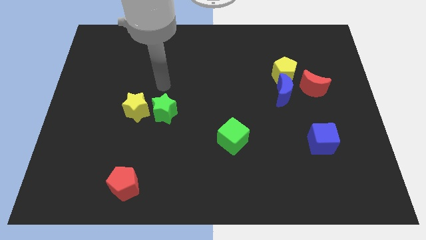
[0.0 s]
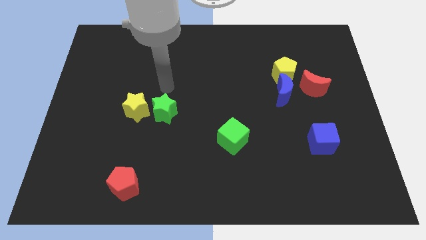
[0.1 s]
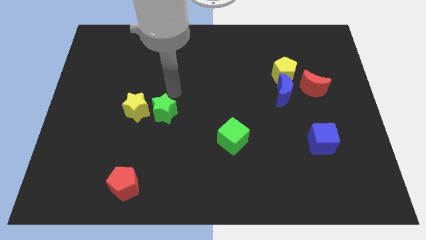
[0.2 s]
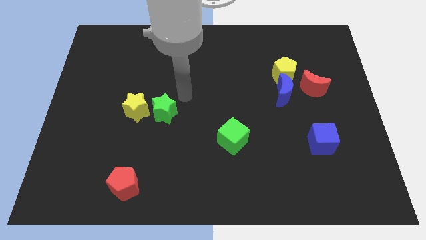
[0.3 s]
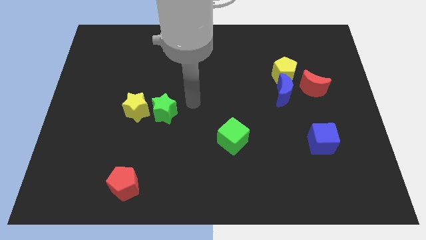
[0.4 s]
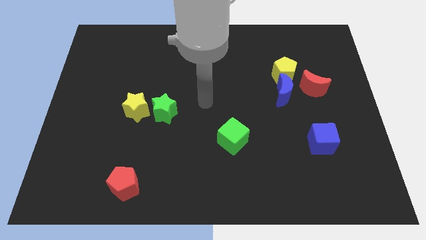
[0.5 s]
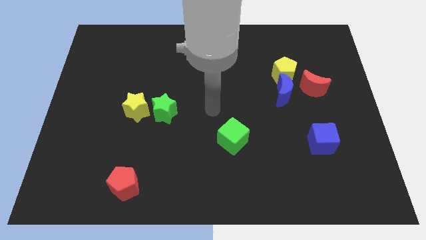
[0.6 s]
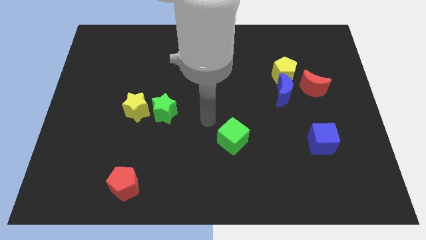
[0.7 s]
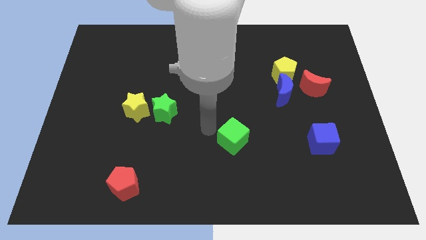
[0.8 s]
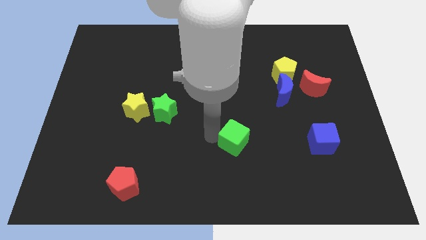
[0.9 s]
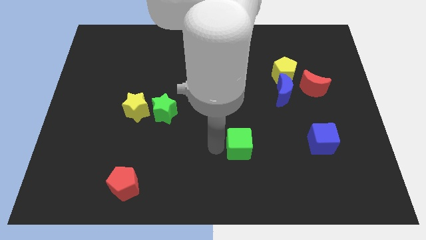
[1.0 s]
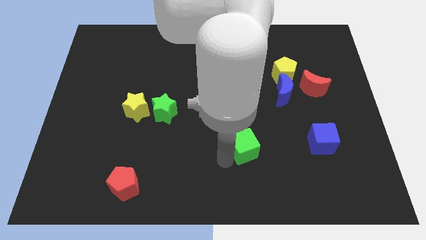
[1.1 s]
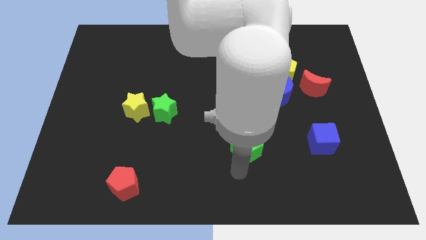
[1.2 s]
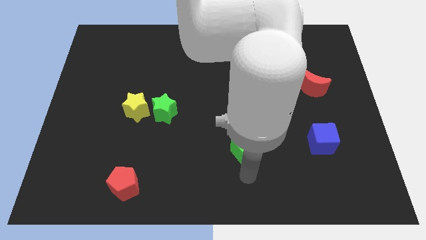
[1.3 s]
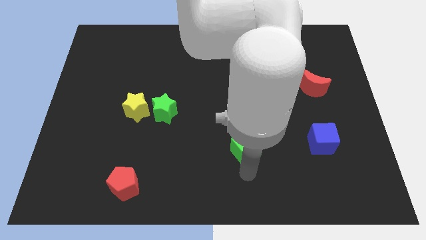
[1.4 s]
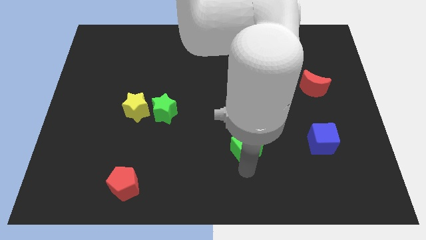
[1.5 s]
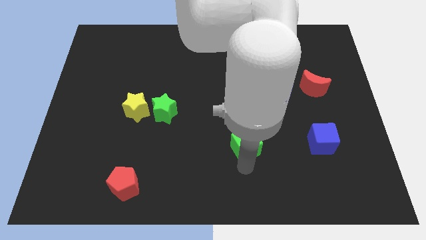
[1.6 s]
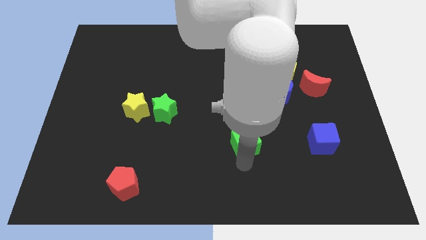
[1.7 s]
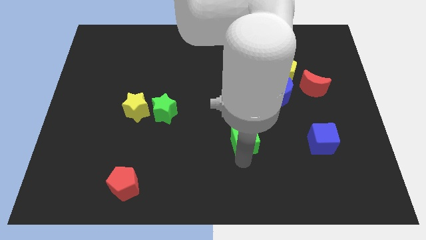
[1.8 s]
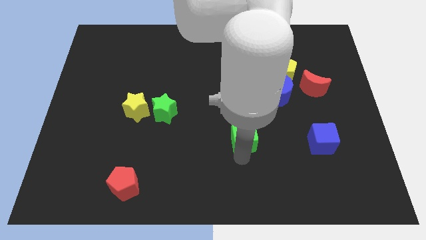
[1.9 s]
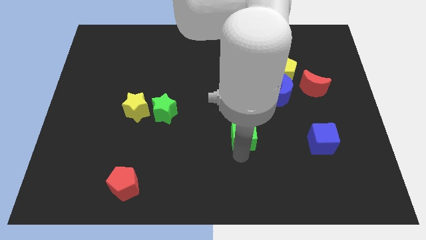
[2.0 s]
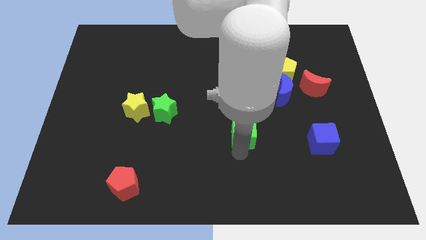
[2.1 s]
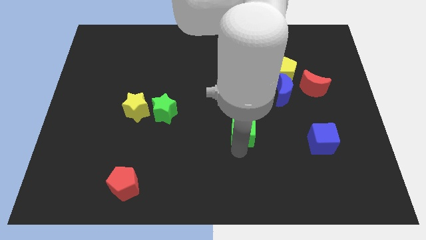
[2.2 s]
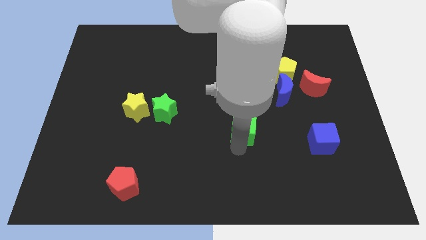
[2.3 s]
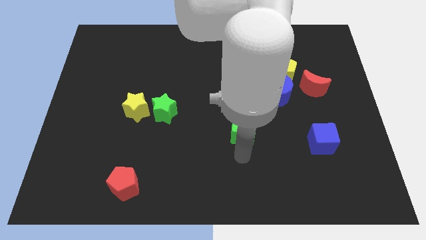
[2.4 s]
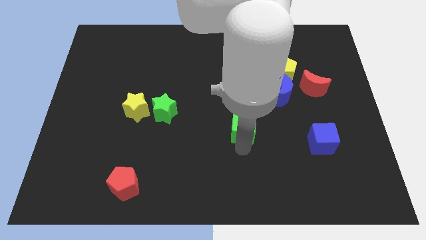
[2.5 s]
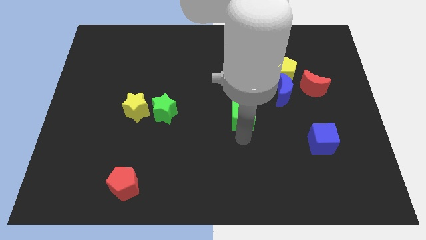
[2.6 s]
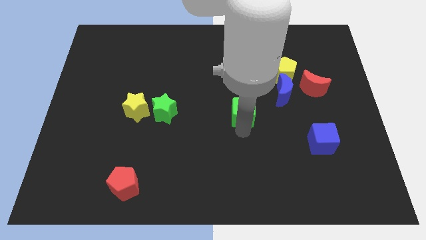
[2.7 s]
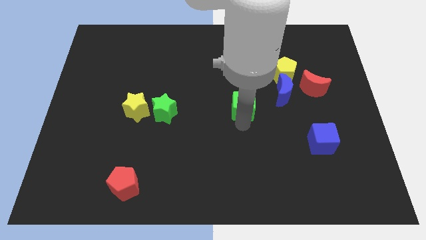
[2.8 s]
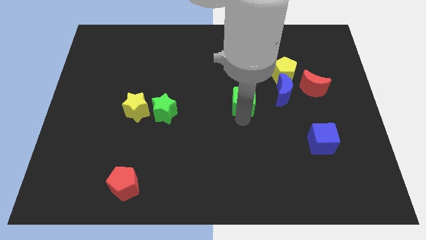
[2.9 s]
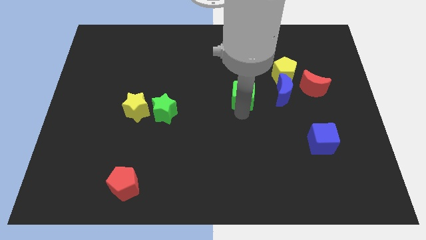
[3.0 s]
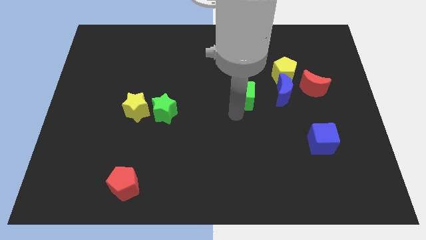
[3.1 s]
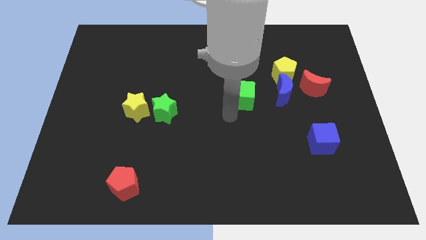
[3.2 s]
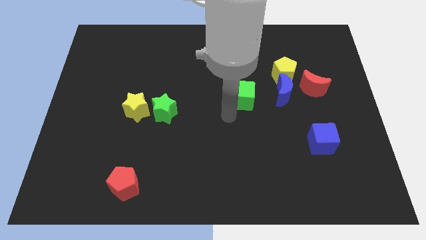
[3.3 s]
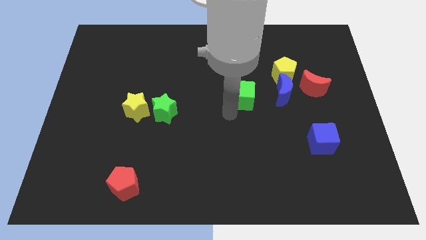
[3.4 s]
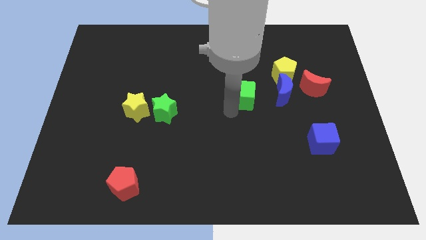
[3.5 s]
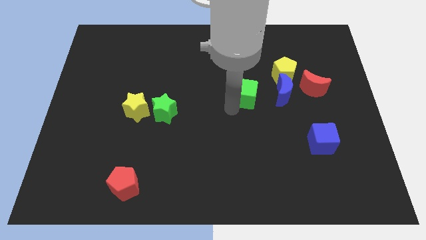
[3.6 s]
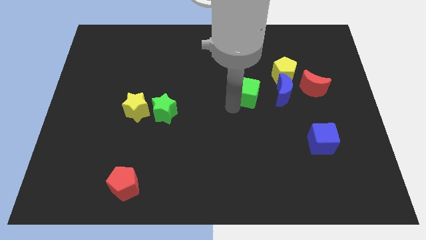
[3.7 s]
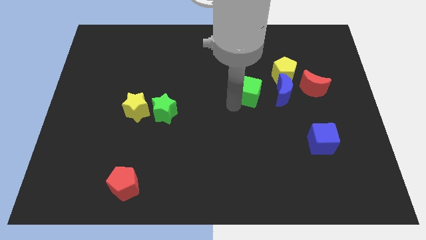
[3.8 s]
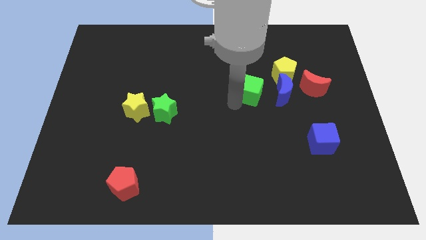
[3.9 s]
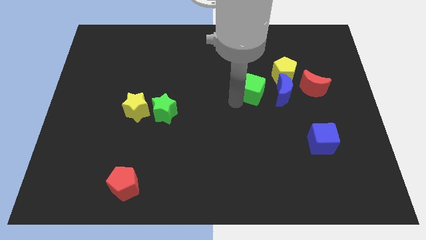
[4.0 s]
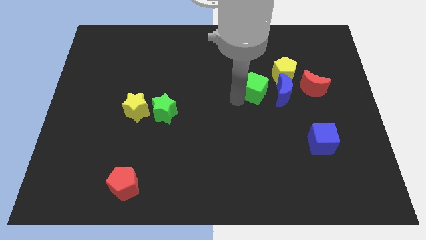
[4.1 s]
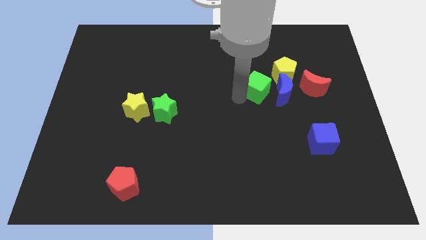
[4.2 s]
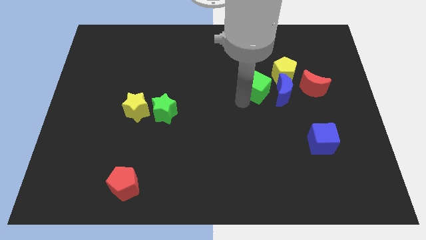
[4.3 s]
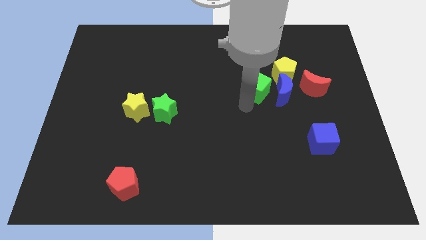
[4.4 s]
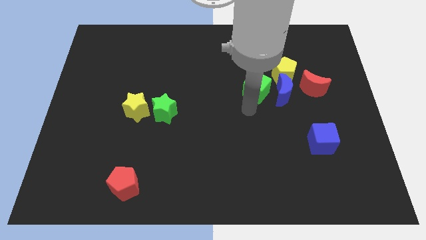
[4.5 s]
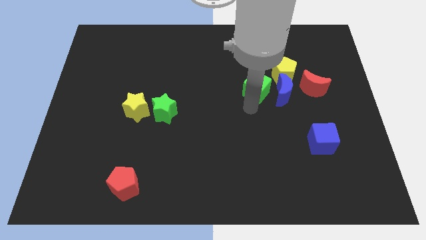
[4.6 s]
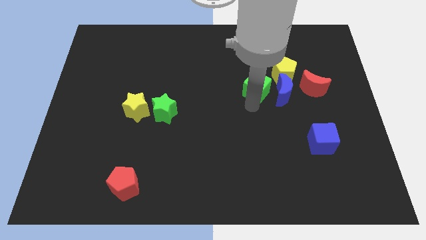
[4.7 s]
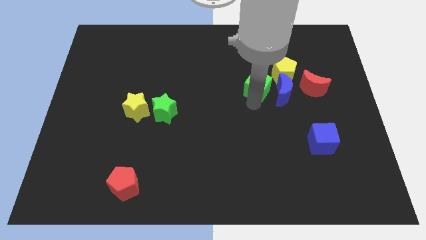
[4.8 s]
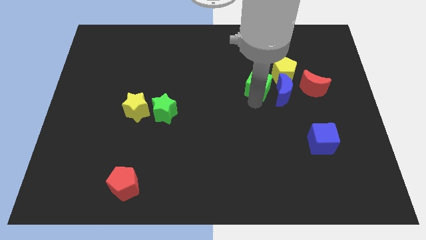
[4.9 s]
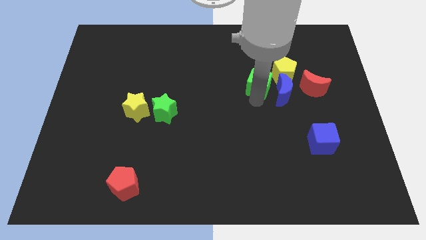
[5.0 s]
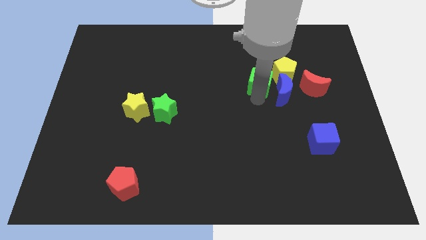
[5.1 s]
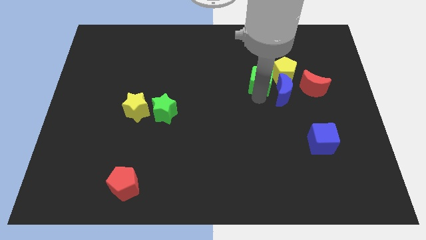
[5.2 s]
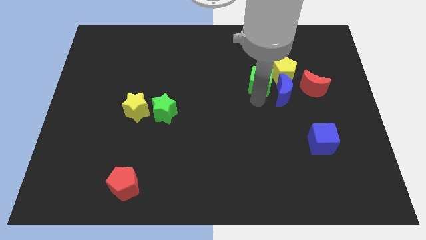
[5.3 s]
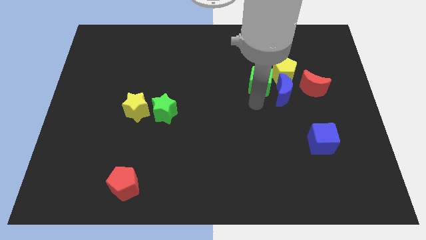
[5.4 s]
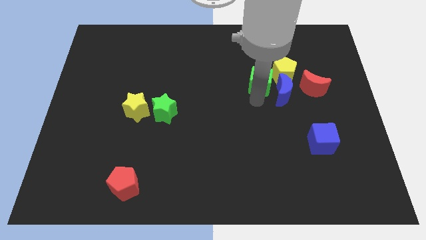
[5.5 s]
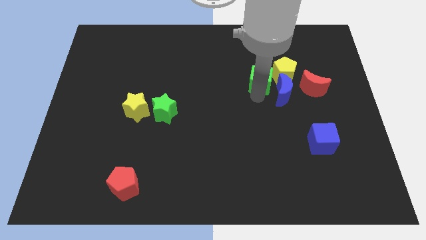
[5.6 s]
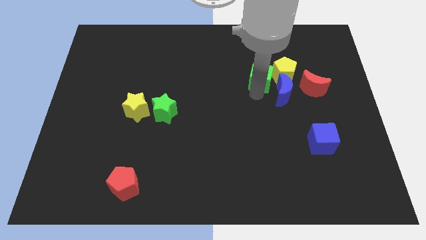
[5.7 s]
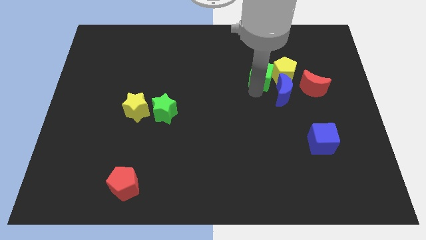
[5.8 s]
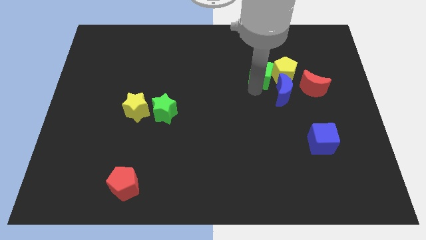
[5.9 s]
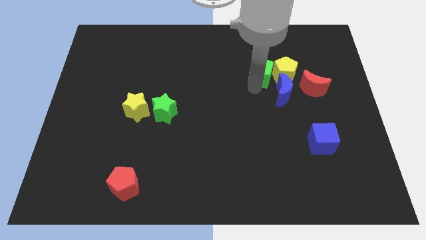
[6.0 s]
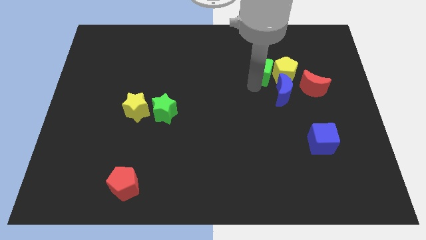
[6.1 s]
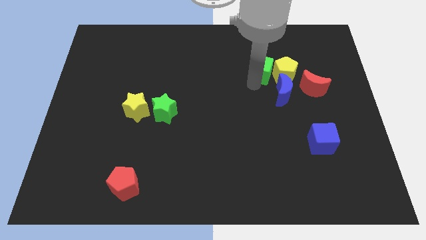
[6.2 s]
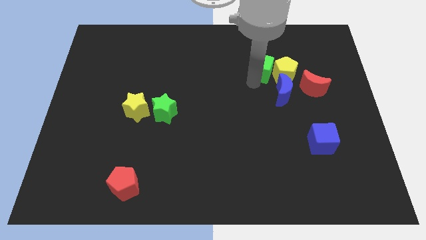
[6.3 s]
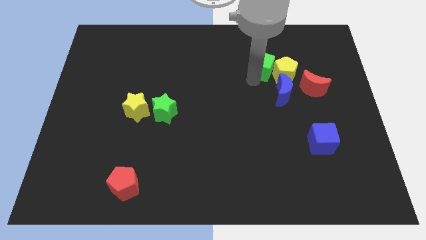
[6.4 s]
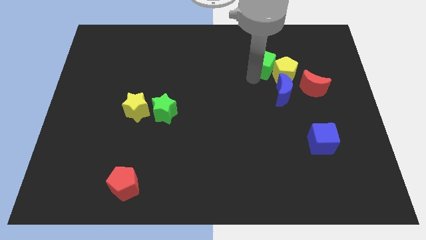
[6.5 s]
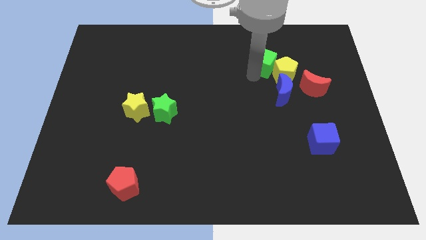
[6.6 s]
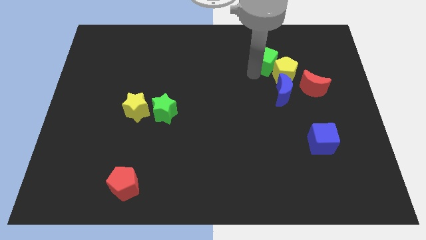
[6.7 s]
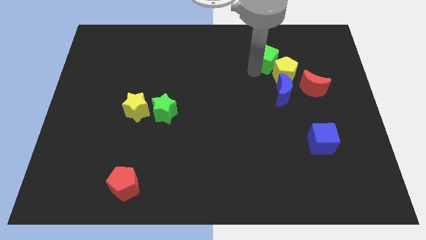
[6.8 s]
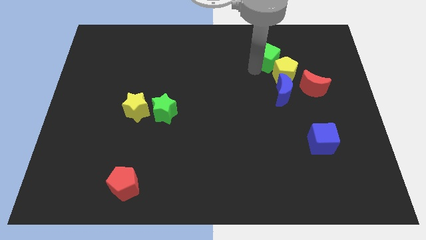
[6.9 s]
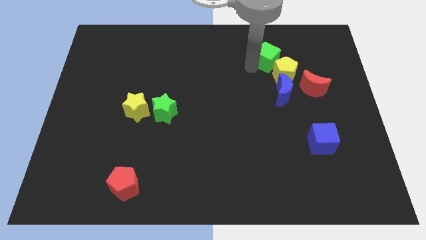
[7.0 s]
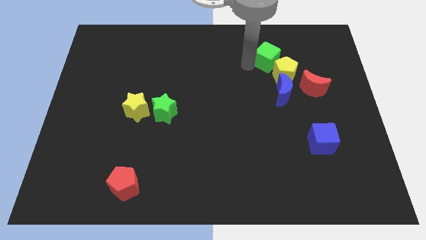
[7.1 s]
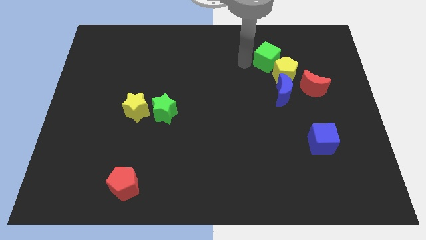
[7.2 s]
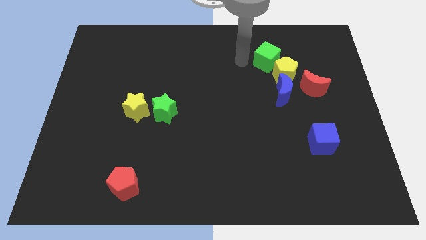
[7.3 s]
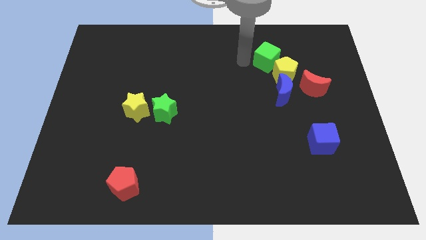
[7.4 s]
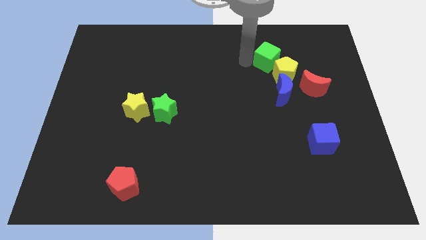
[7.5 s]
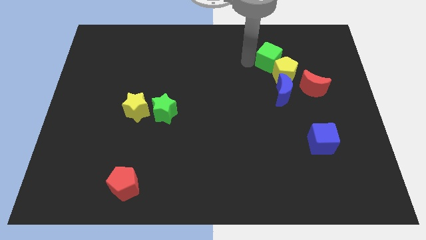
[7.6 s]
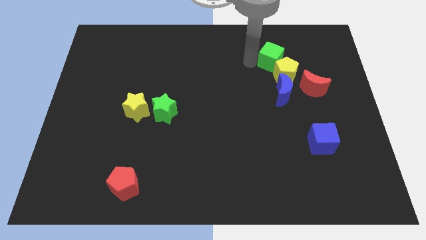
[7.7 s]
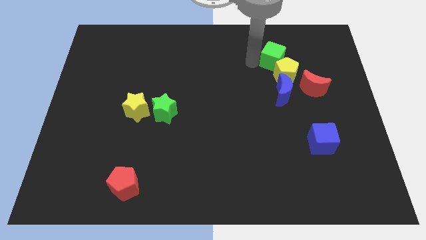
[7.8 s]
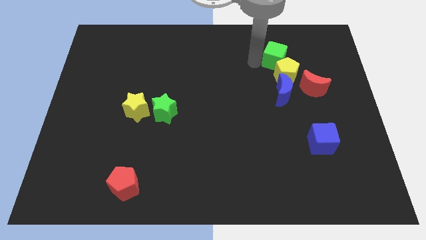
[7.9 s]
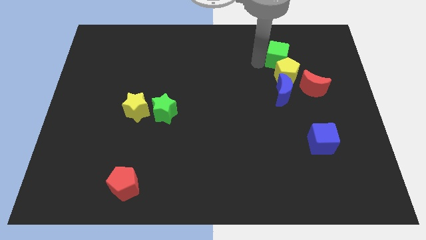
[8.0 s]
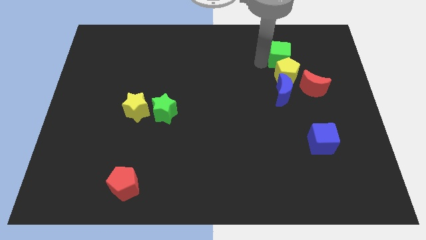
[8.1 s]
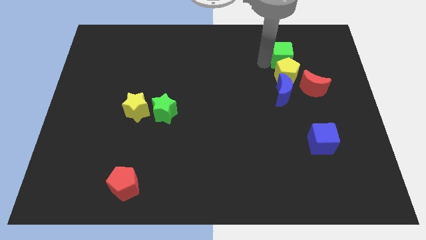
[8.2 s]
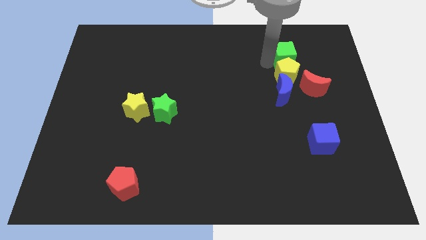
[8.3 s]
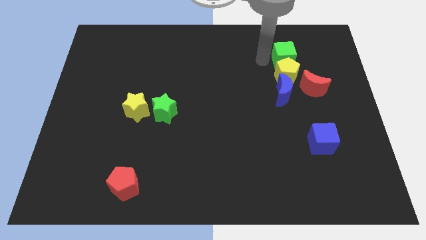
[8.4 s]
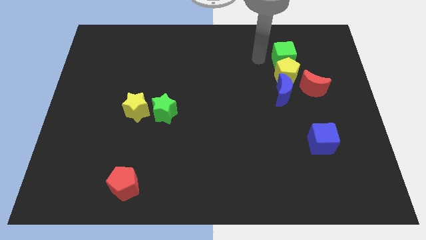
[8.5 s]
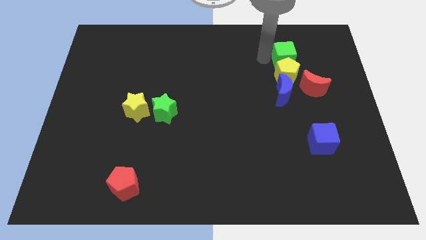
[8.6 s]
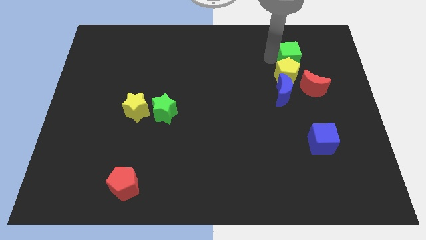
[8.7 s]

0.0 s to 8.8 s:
slide the green cube to the top side of the red moon
